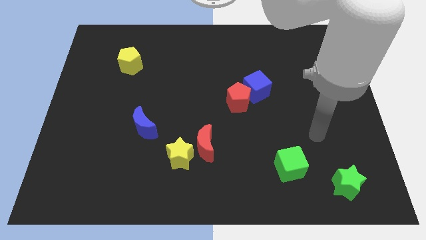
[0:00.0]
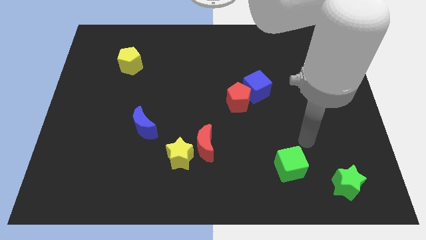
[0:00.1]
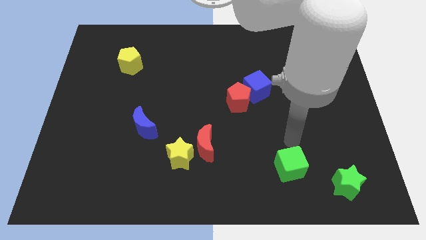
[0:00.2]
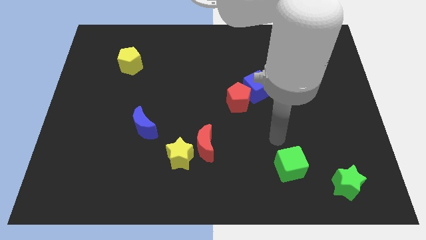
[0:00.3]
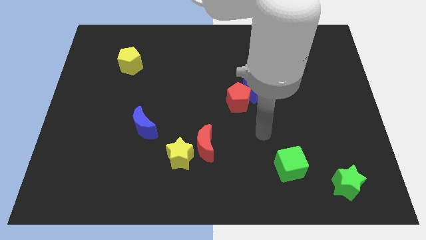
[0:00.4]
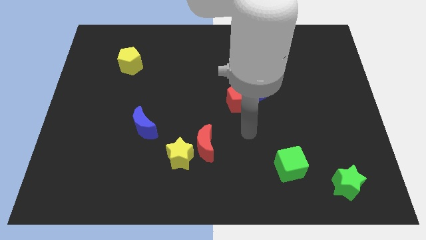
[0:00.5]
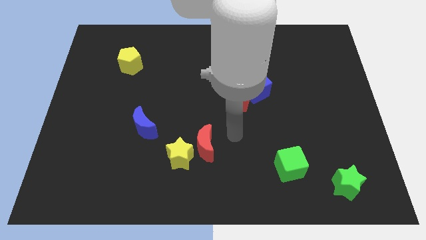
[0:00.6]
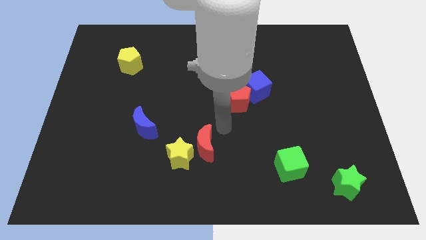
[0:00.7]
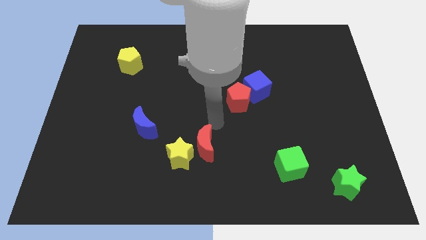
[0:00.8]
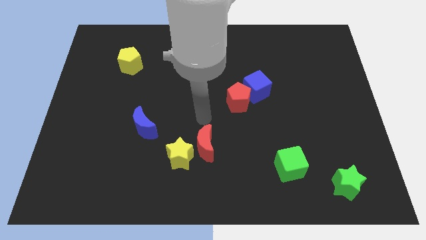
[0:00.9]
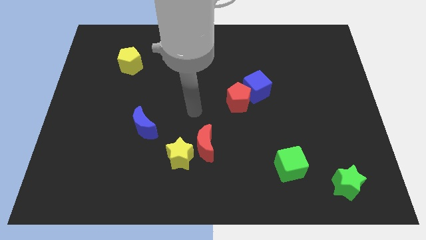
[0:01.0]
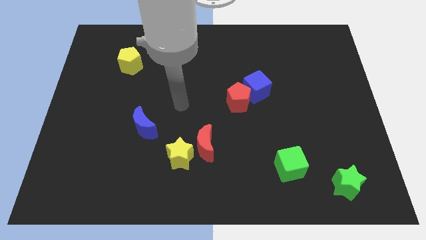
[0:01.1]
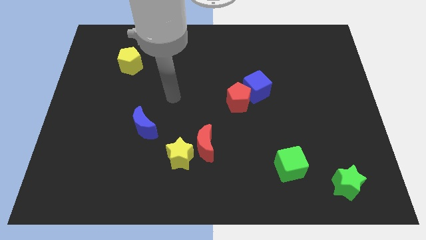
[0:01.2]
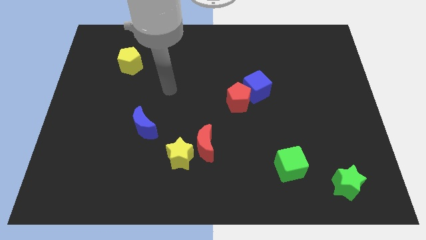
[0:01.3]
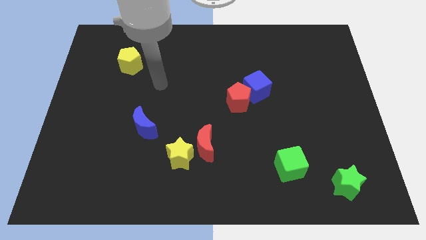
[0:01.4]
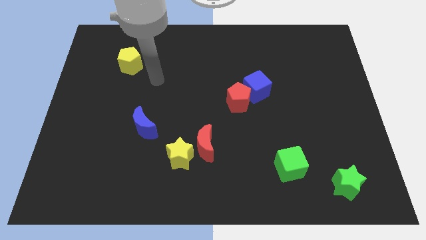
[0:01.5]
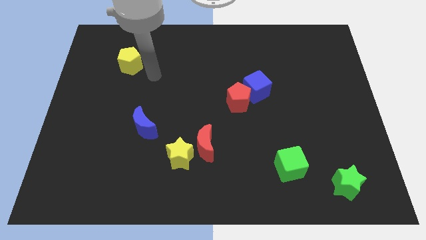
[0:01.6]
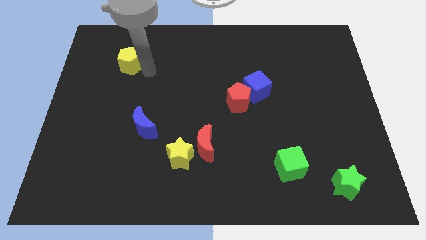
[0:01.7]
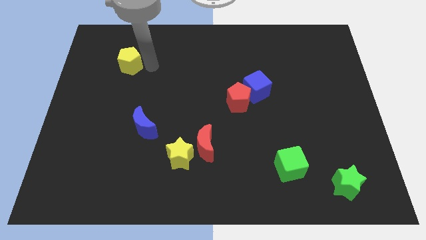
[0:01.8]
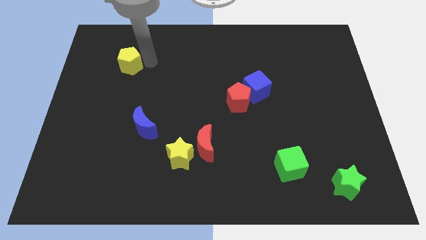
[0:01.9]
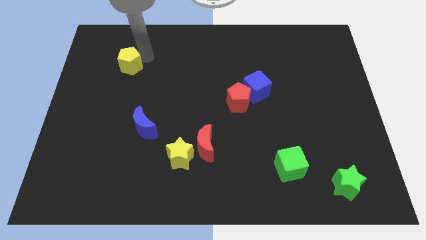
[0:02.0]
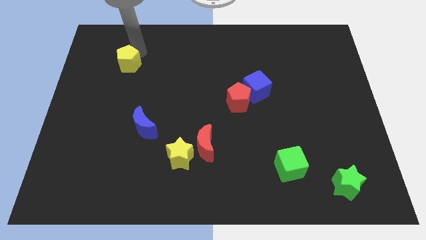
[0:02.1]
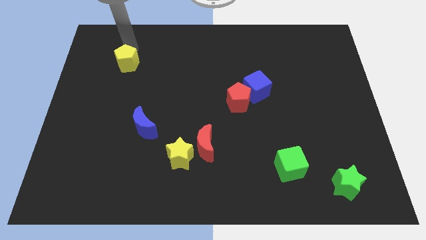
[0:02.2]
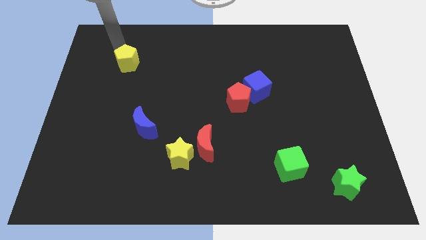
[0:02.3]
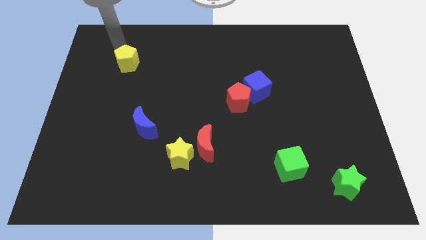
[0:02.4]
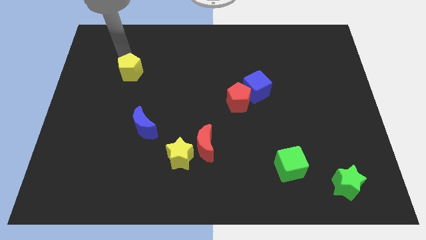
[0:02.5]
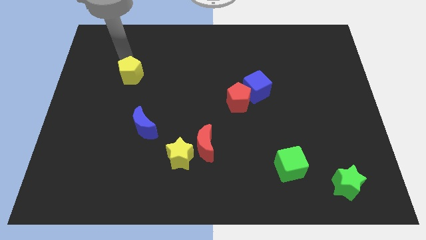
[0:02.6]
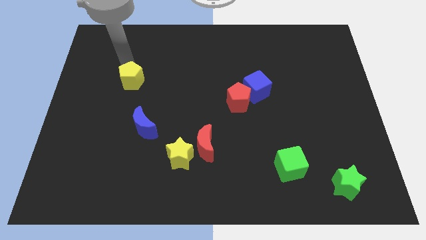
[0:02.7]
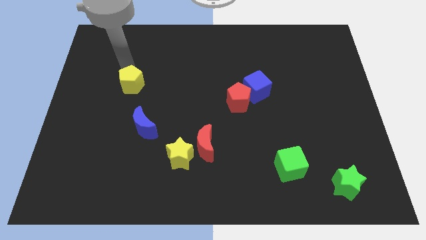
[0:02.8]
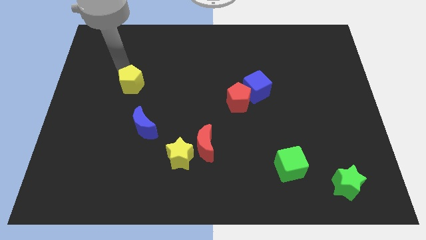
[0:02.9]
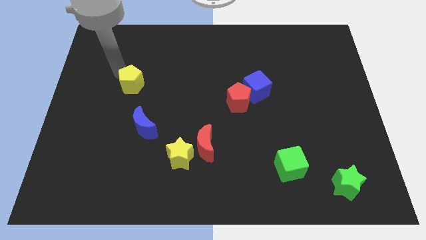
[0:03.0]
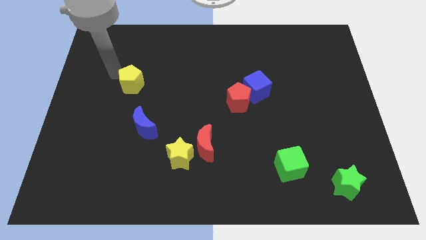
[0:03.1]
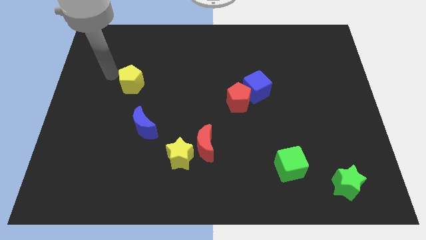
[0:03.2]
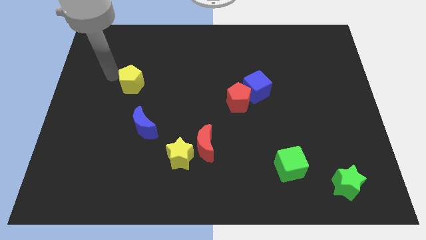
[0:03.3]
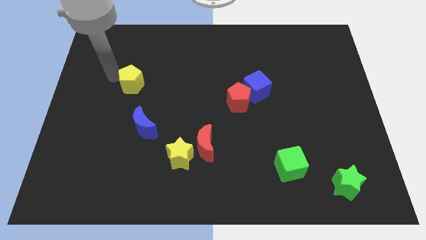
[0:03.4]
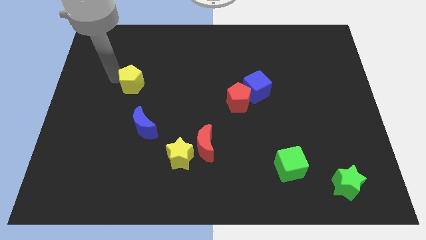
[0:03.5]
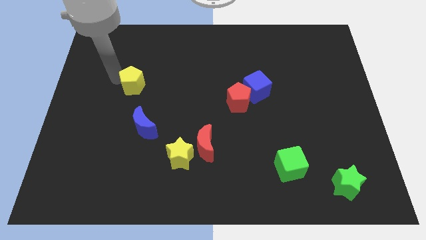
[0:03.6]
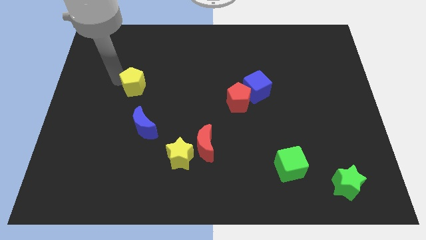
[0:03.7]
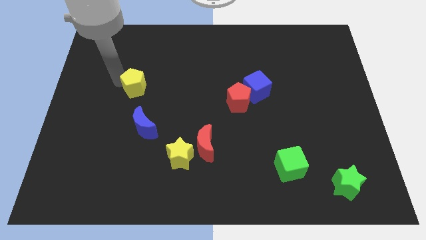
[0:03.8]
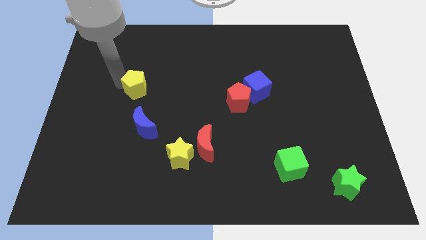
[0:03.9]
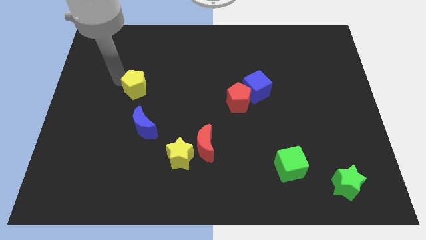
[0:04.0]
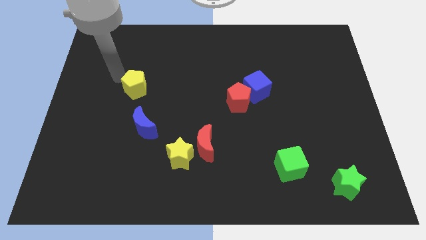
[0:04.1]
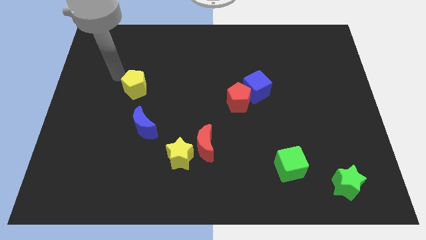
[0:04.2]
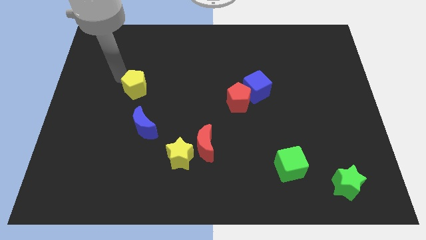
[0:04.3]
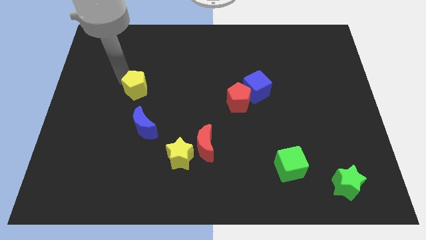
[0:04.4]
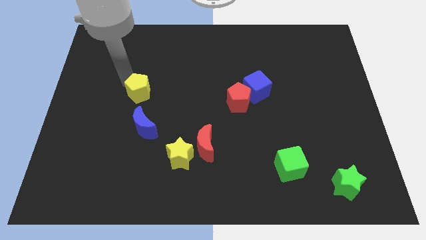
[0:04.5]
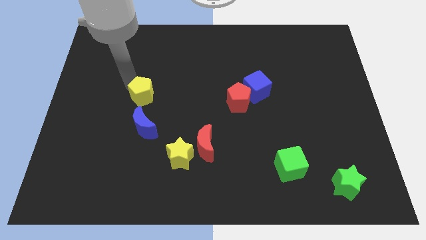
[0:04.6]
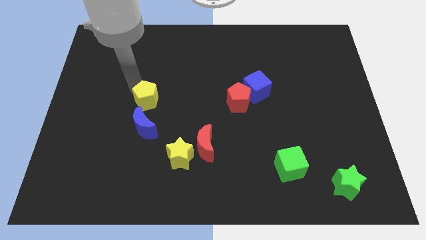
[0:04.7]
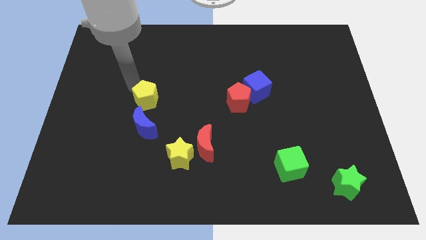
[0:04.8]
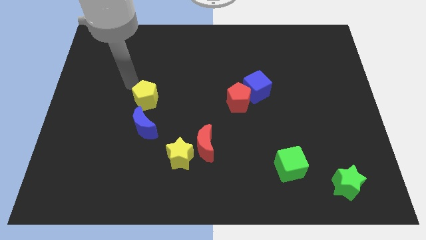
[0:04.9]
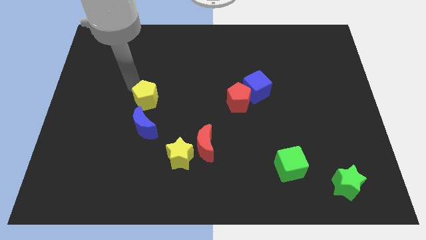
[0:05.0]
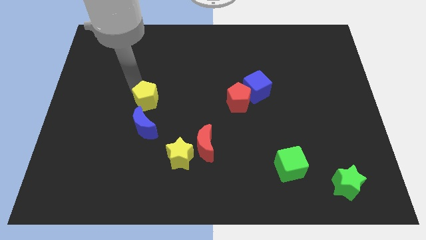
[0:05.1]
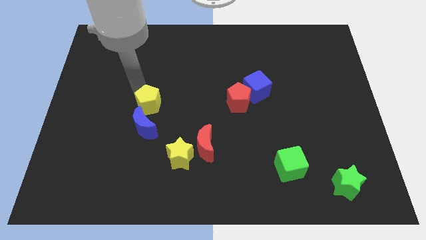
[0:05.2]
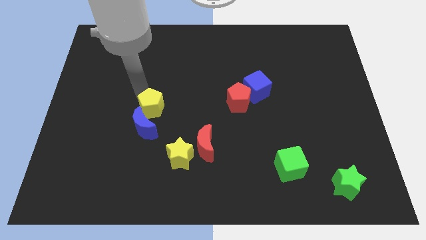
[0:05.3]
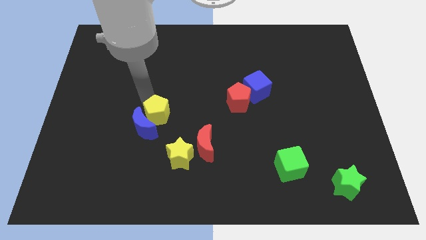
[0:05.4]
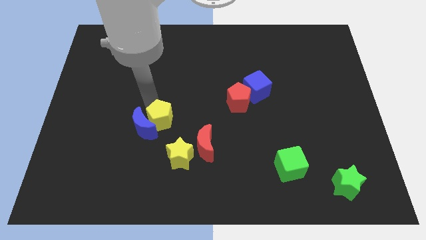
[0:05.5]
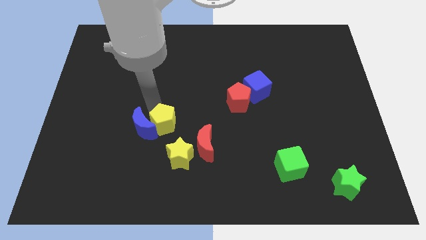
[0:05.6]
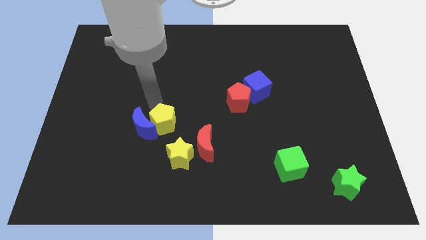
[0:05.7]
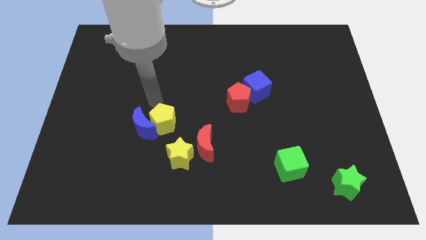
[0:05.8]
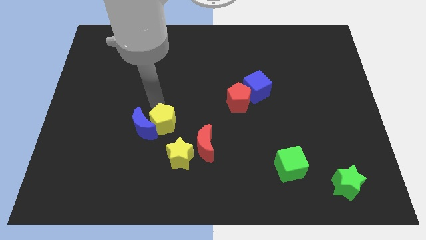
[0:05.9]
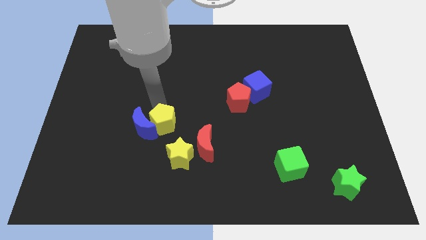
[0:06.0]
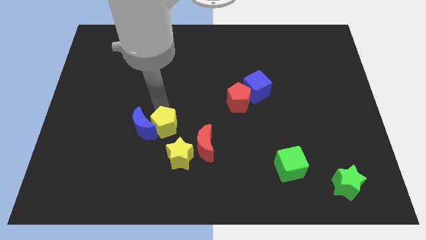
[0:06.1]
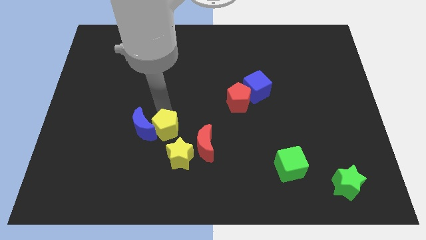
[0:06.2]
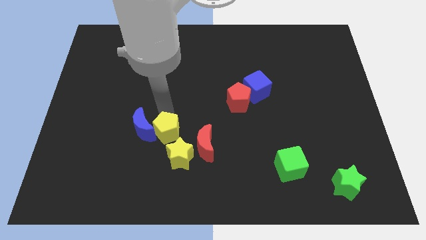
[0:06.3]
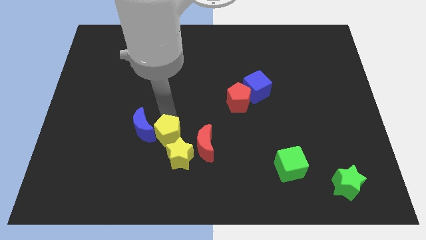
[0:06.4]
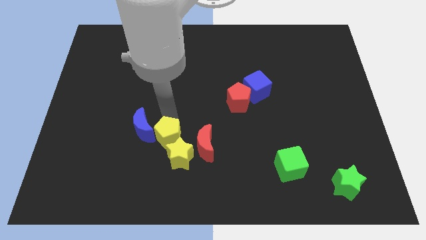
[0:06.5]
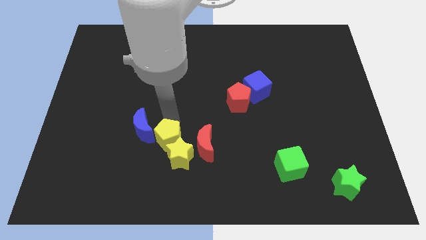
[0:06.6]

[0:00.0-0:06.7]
put the yellow pentagon next to the yellow star
